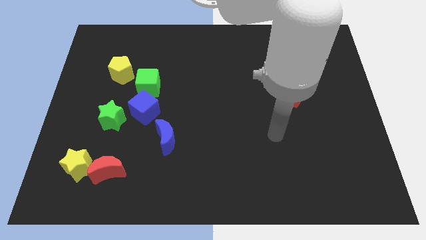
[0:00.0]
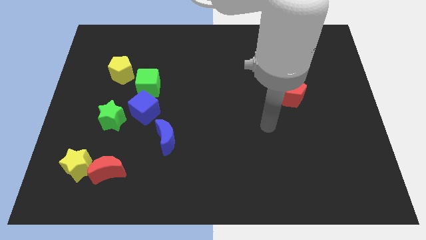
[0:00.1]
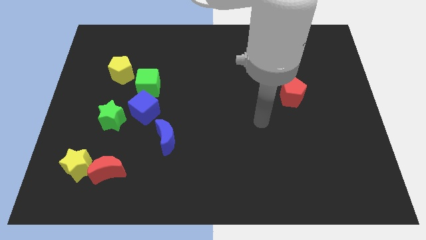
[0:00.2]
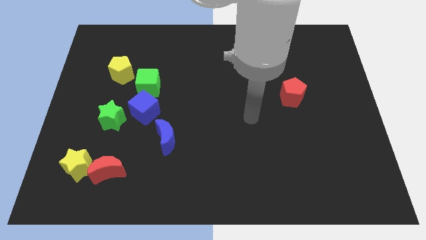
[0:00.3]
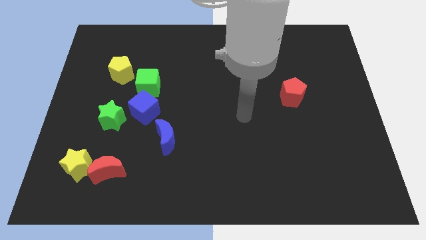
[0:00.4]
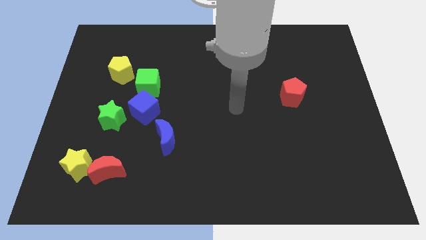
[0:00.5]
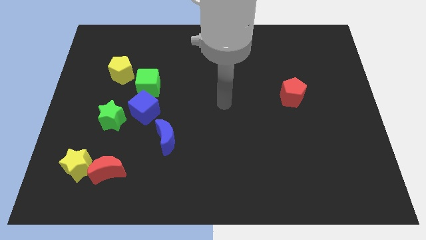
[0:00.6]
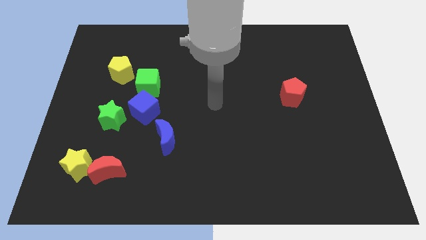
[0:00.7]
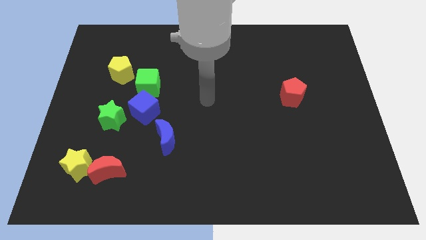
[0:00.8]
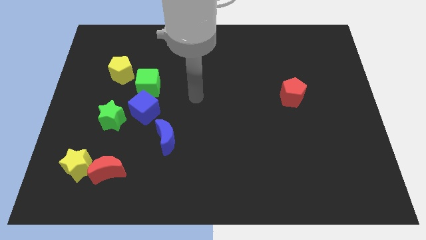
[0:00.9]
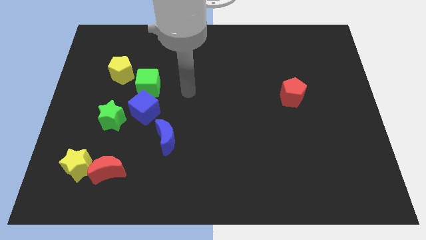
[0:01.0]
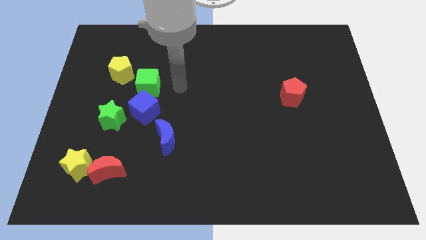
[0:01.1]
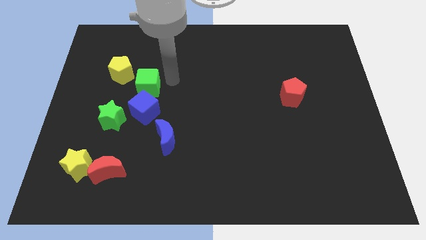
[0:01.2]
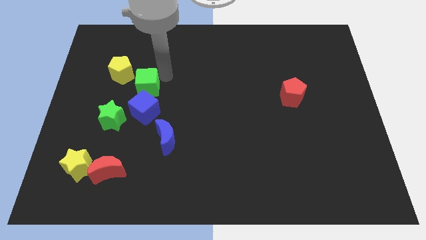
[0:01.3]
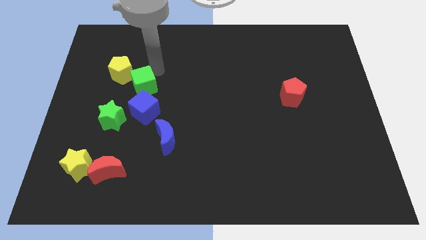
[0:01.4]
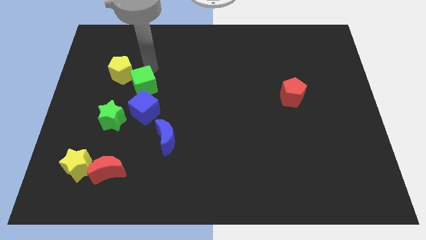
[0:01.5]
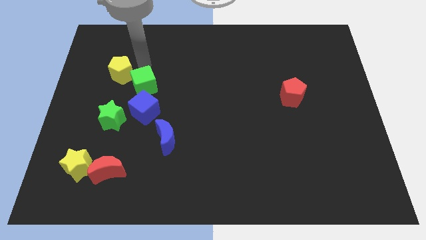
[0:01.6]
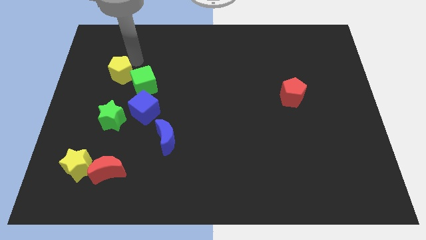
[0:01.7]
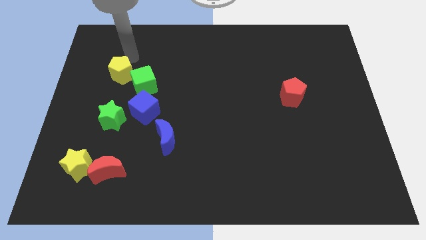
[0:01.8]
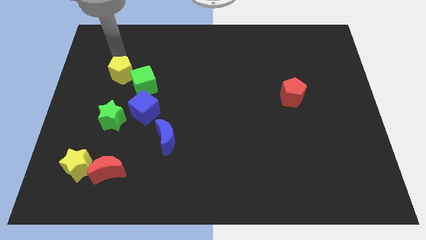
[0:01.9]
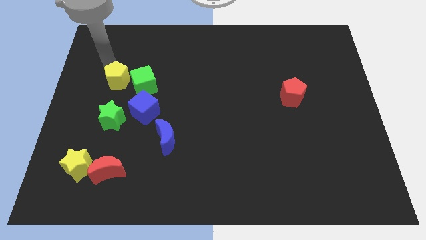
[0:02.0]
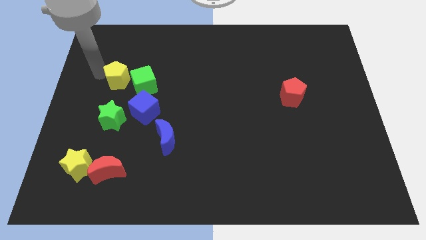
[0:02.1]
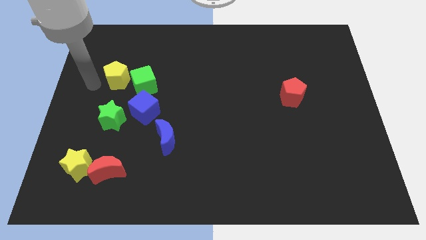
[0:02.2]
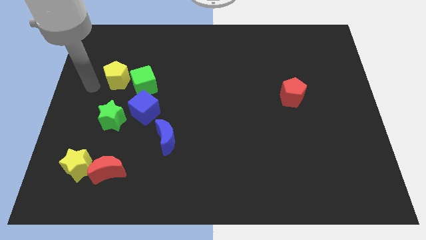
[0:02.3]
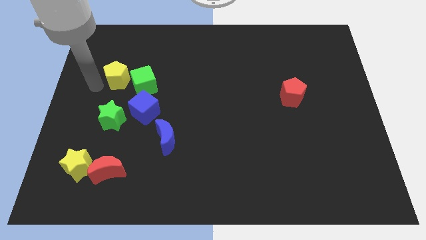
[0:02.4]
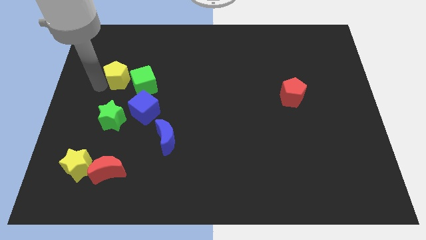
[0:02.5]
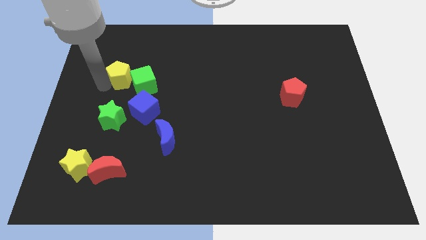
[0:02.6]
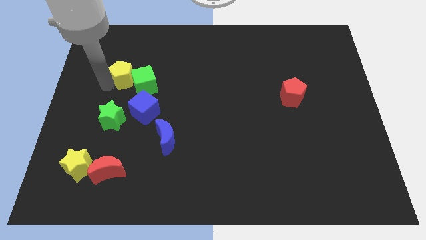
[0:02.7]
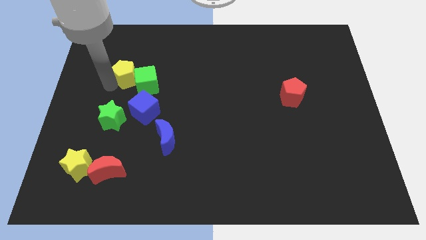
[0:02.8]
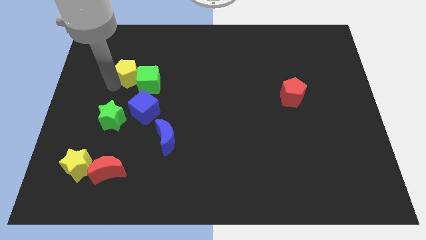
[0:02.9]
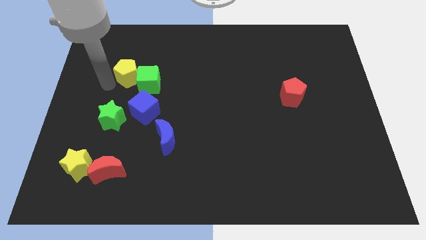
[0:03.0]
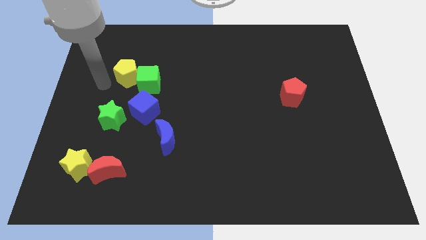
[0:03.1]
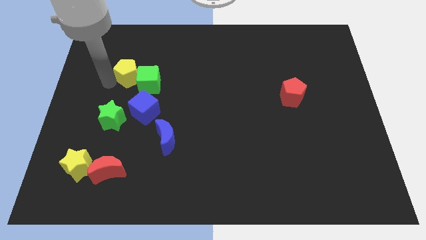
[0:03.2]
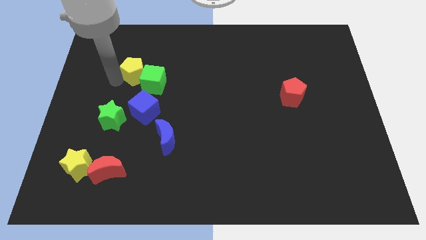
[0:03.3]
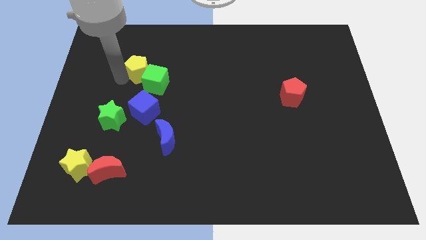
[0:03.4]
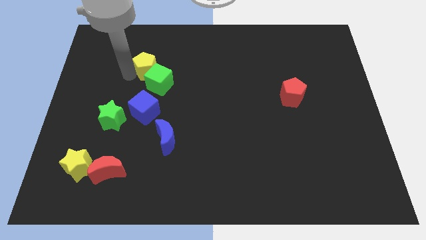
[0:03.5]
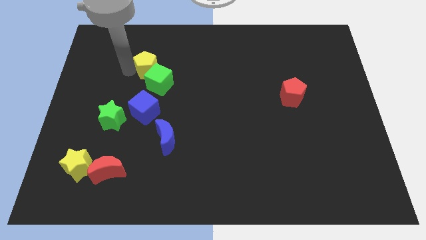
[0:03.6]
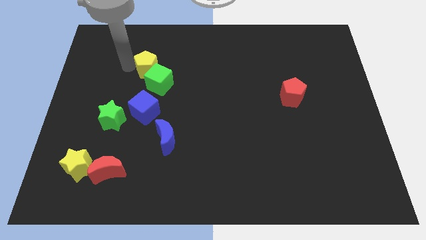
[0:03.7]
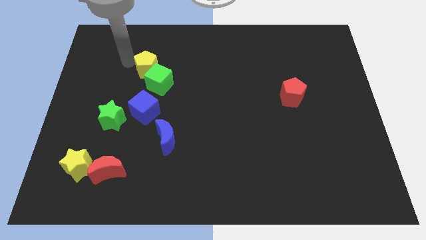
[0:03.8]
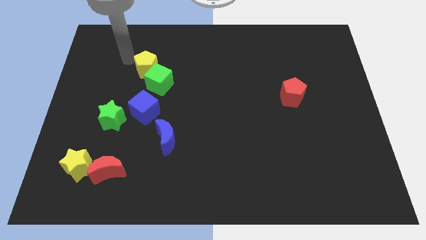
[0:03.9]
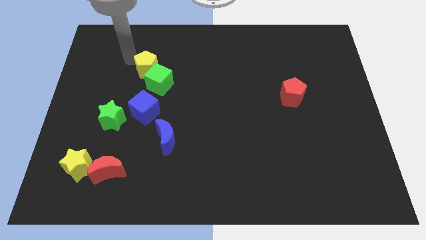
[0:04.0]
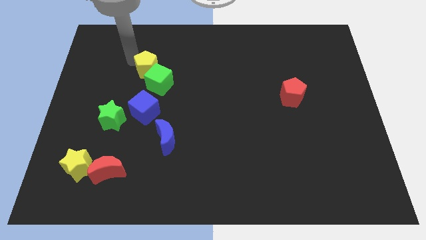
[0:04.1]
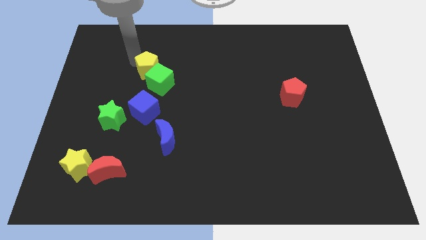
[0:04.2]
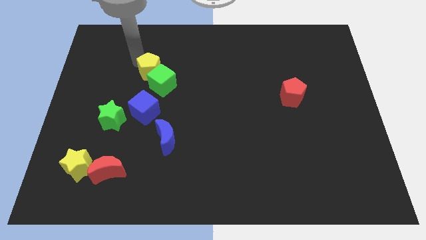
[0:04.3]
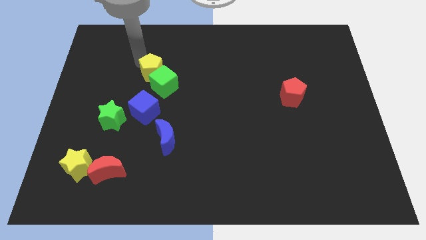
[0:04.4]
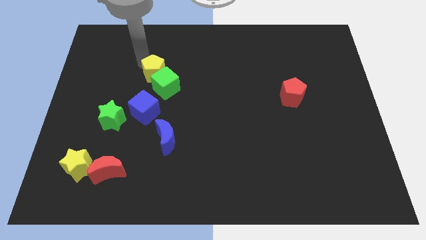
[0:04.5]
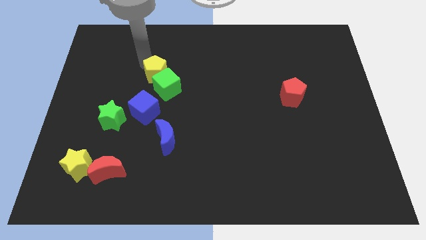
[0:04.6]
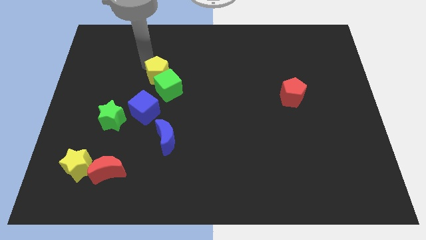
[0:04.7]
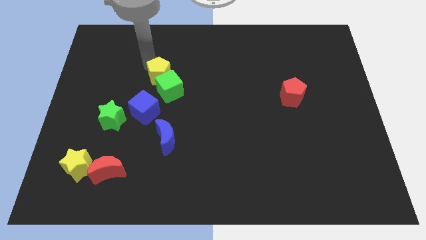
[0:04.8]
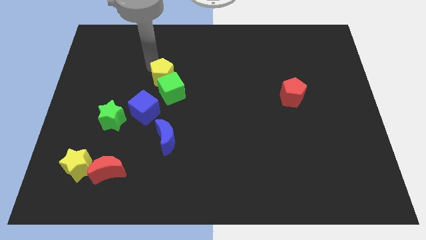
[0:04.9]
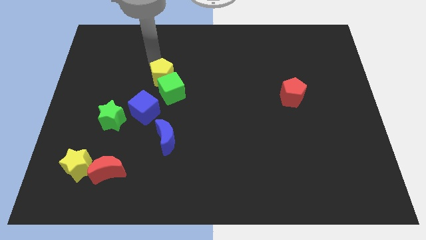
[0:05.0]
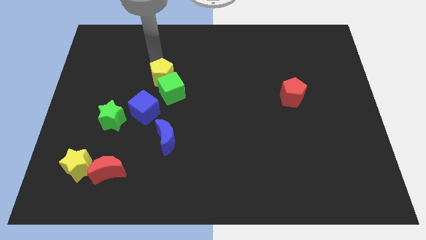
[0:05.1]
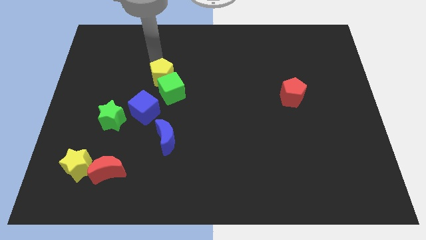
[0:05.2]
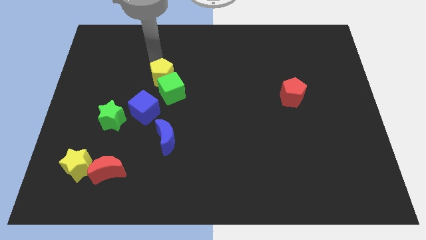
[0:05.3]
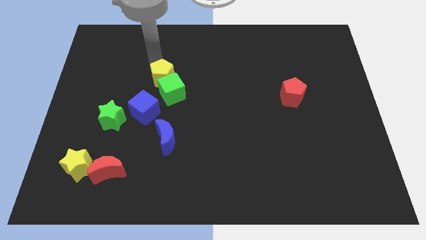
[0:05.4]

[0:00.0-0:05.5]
slide the yellow pentagon a little bit downwards and to the right diagonally

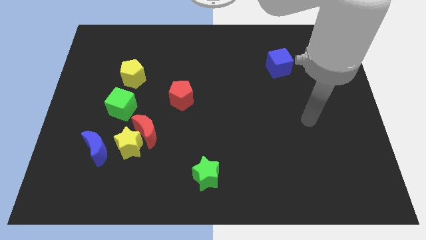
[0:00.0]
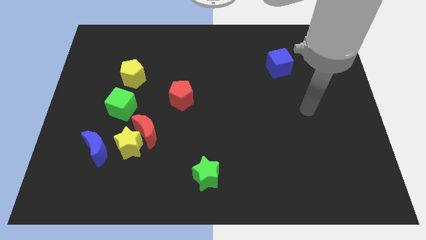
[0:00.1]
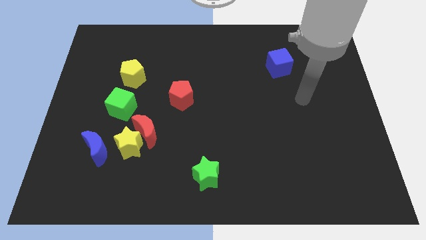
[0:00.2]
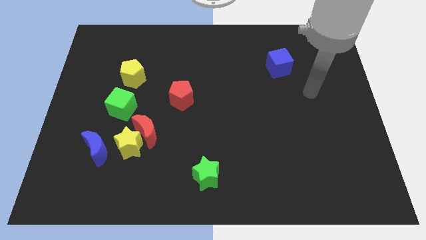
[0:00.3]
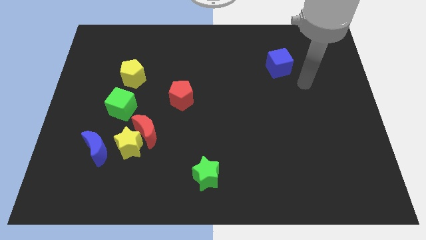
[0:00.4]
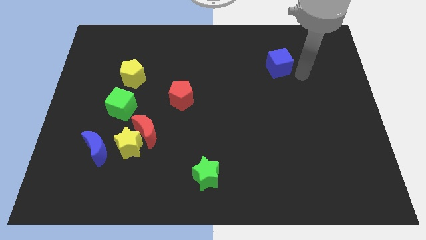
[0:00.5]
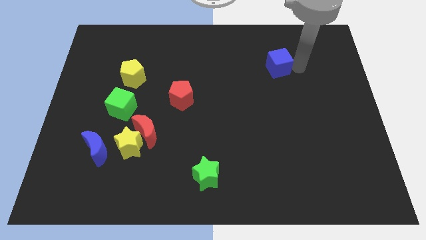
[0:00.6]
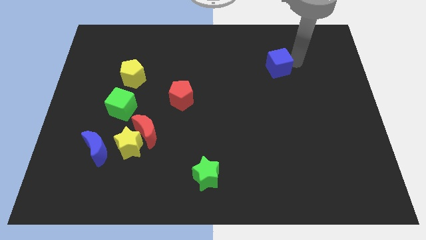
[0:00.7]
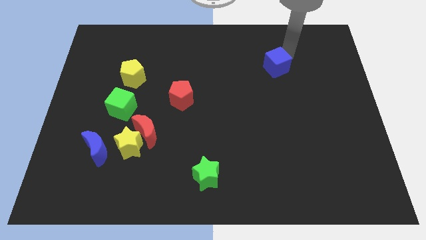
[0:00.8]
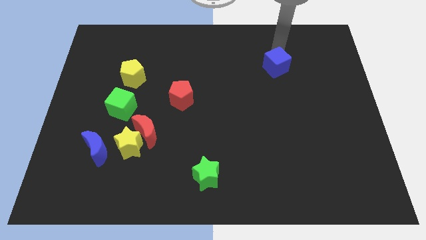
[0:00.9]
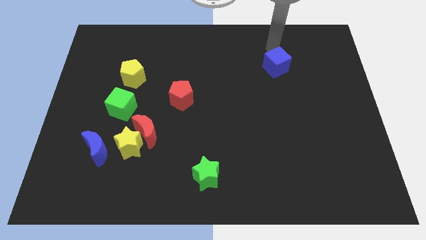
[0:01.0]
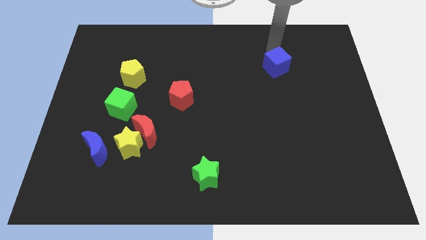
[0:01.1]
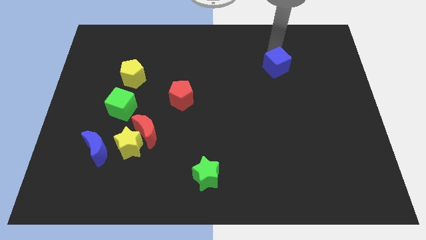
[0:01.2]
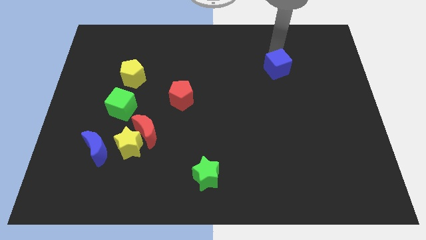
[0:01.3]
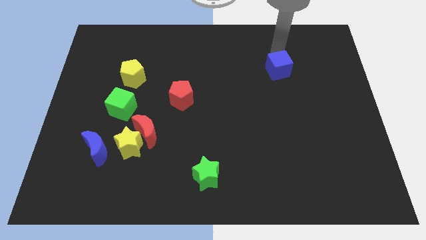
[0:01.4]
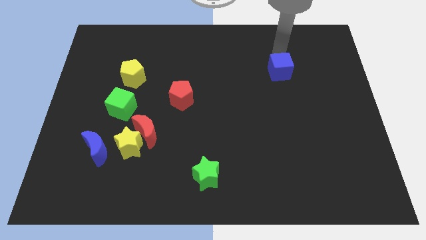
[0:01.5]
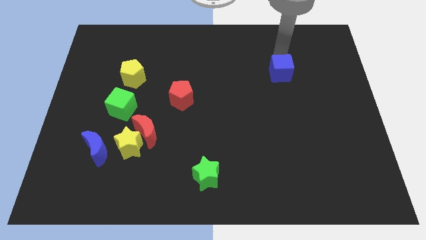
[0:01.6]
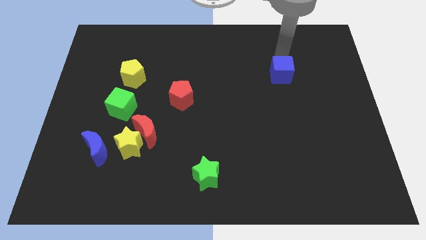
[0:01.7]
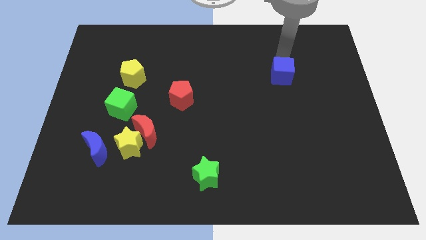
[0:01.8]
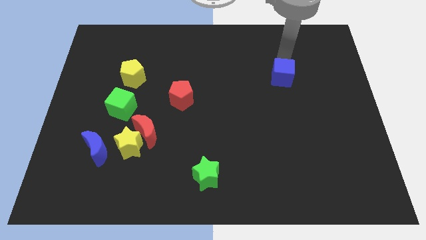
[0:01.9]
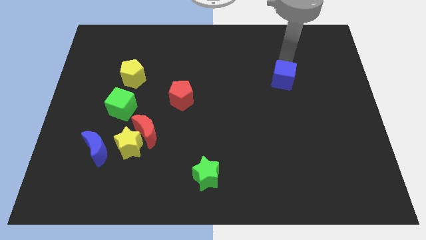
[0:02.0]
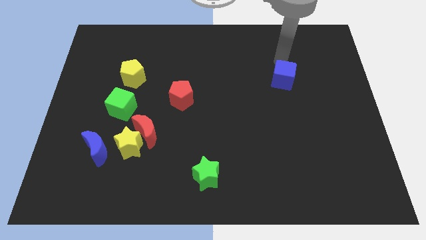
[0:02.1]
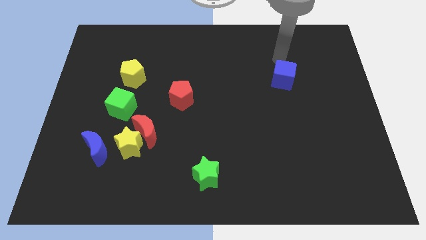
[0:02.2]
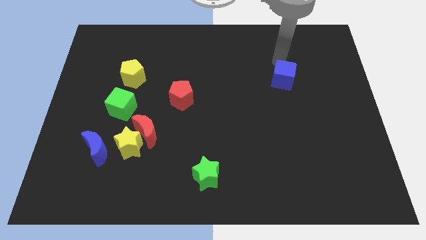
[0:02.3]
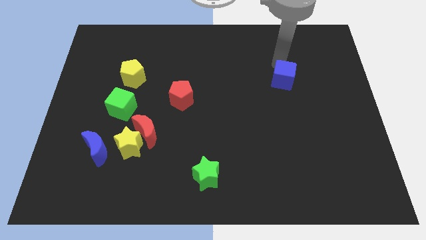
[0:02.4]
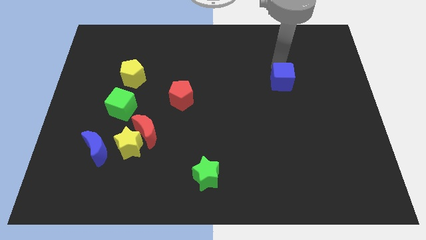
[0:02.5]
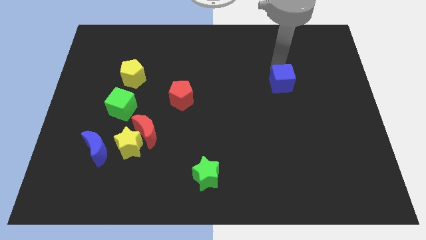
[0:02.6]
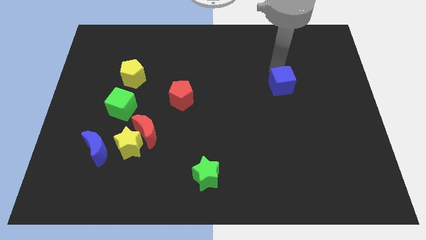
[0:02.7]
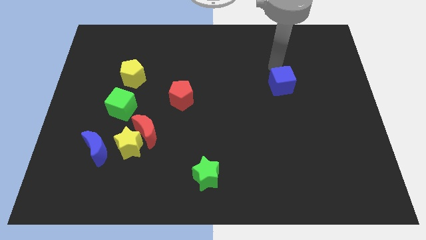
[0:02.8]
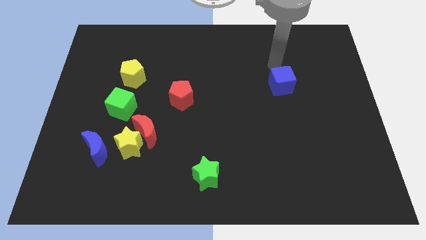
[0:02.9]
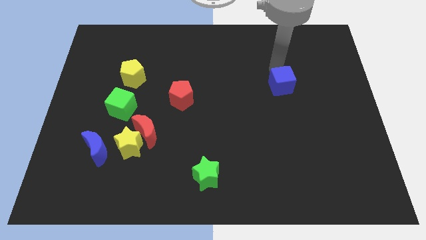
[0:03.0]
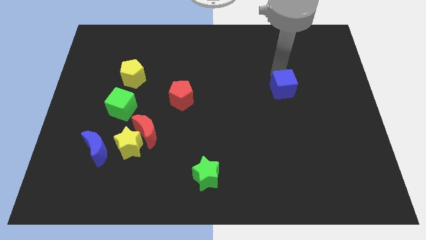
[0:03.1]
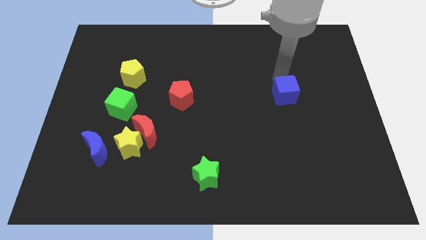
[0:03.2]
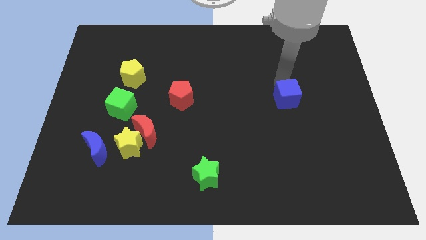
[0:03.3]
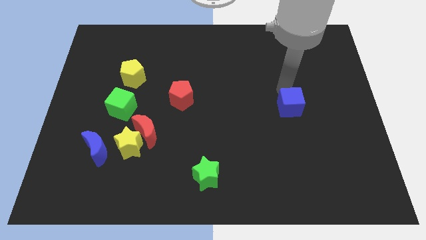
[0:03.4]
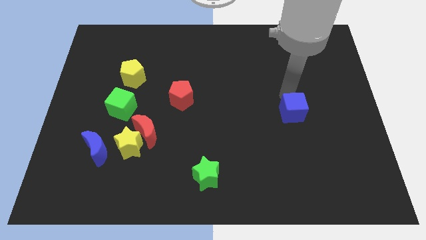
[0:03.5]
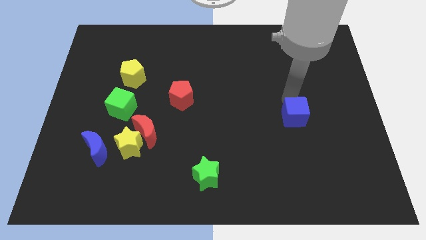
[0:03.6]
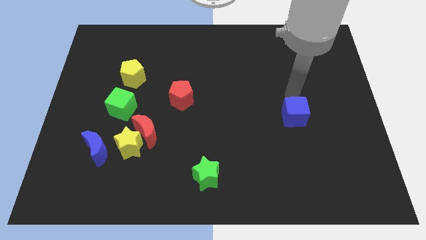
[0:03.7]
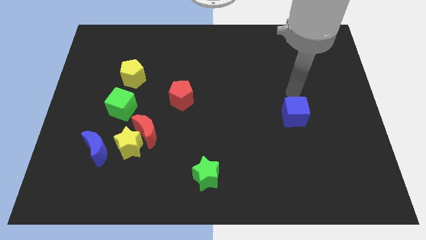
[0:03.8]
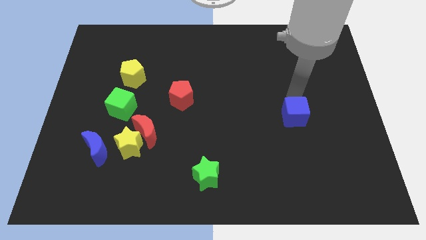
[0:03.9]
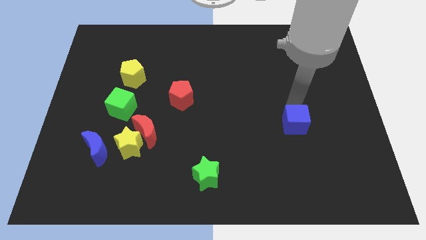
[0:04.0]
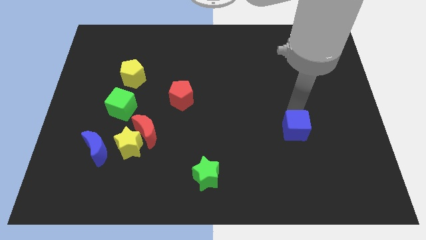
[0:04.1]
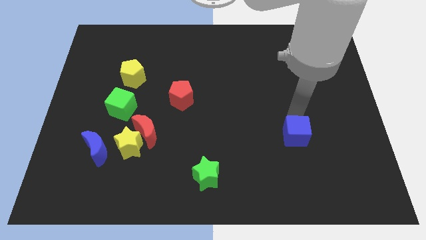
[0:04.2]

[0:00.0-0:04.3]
move the blue cube down
